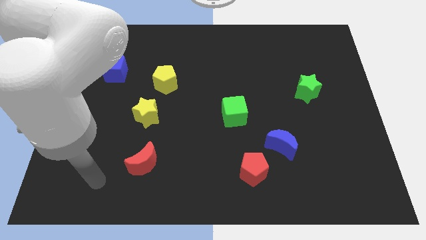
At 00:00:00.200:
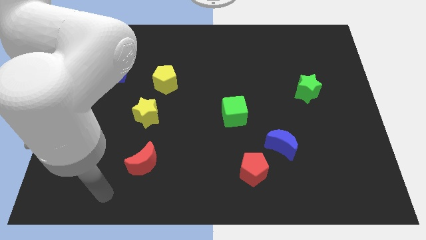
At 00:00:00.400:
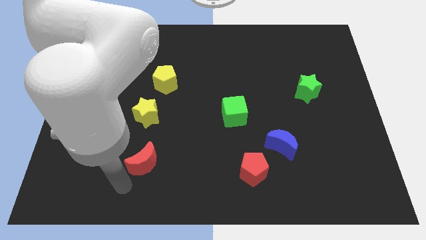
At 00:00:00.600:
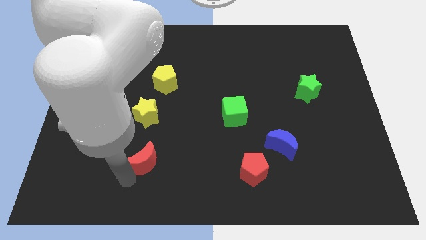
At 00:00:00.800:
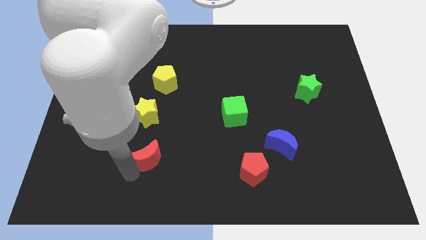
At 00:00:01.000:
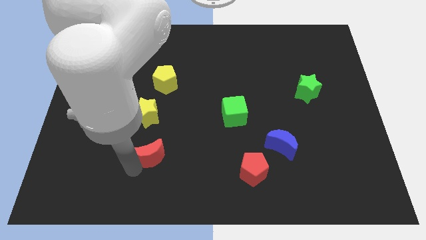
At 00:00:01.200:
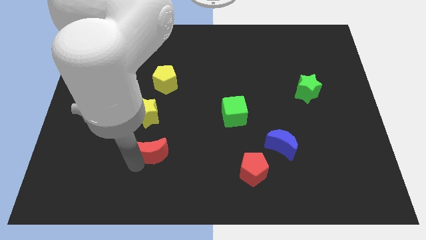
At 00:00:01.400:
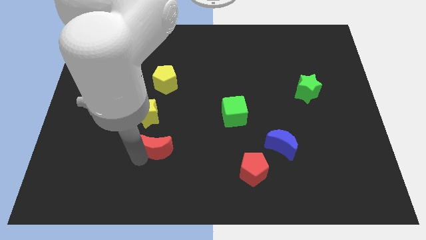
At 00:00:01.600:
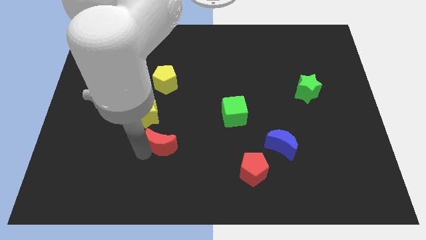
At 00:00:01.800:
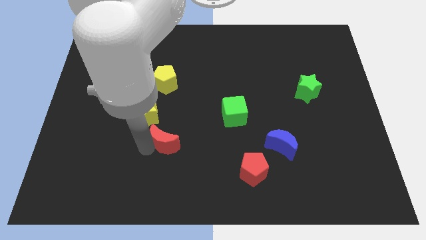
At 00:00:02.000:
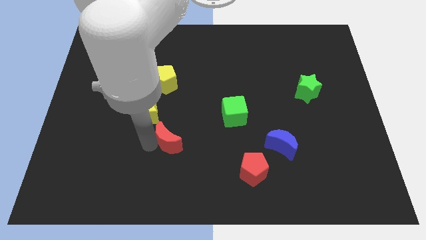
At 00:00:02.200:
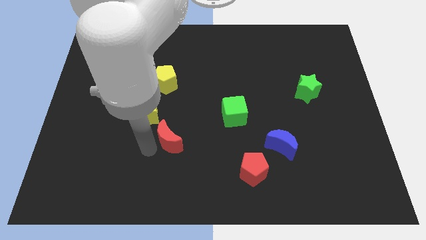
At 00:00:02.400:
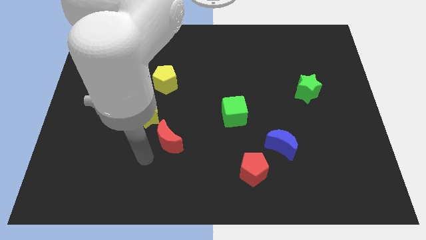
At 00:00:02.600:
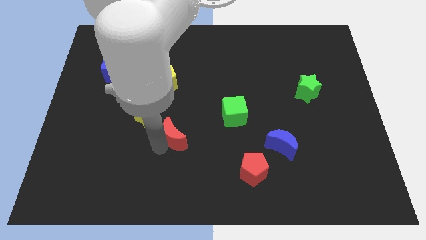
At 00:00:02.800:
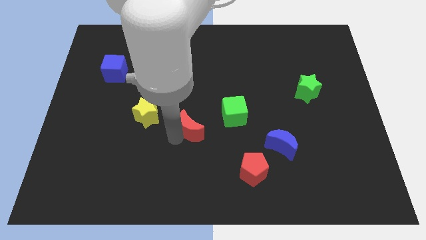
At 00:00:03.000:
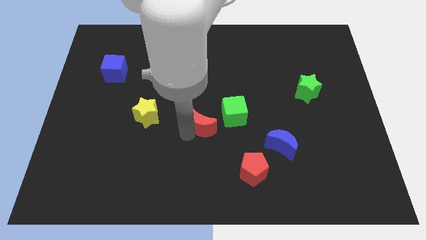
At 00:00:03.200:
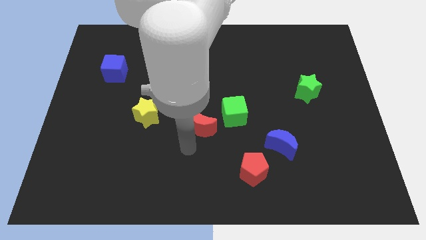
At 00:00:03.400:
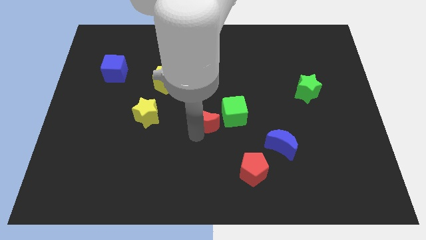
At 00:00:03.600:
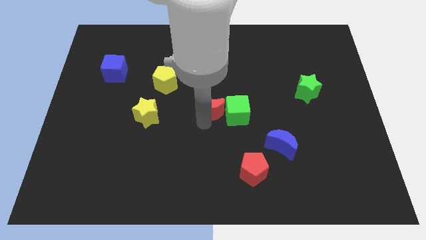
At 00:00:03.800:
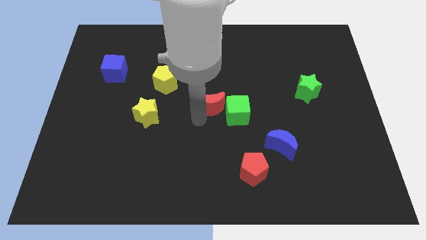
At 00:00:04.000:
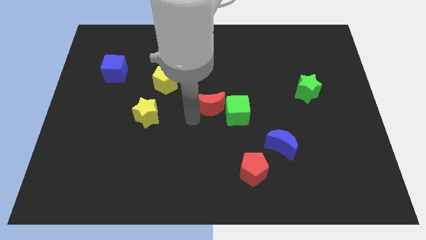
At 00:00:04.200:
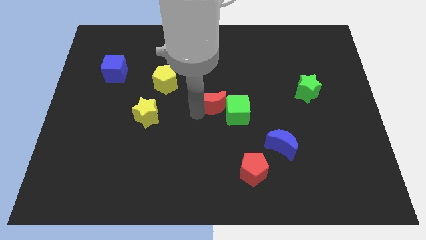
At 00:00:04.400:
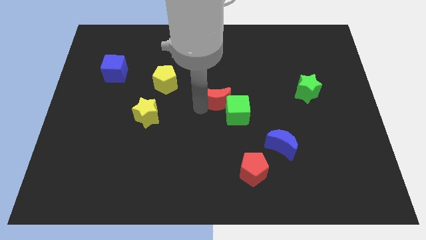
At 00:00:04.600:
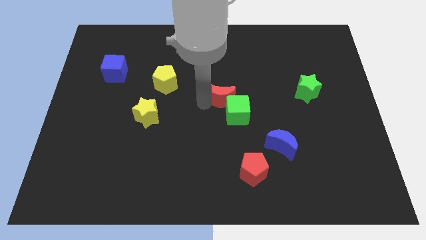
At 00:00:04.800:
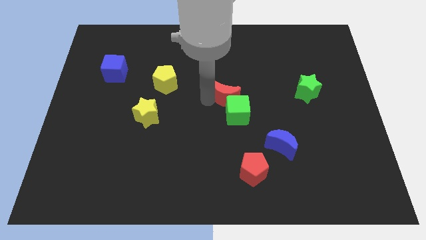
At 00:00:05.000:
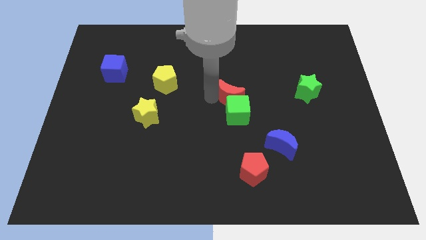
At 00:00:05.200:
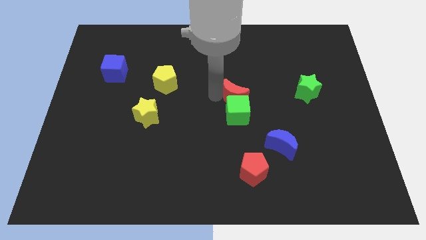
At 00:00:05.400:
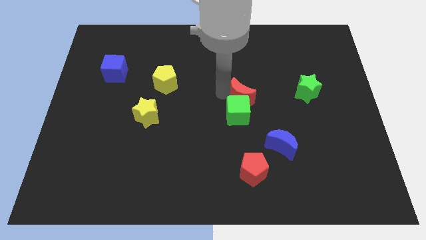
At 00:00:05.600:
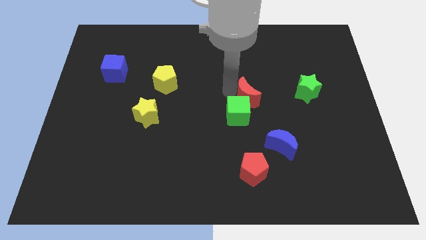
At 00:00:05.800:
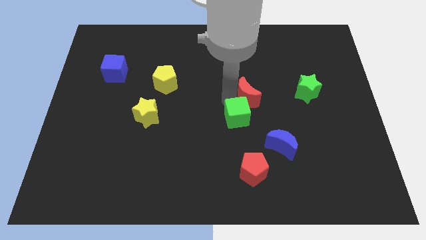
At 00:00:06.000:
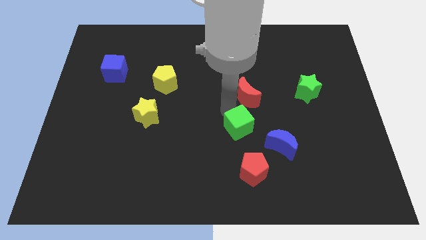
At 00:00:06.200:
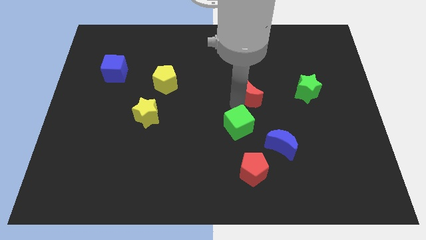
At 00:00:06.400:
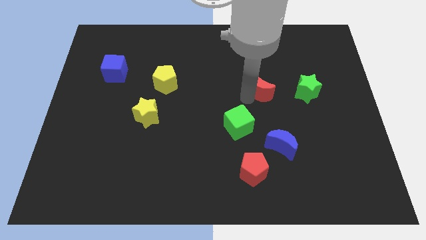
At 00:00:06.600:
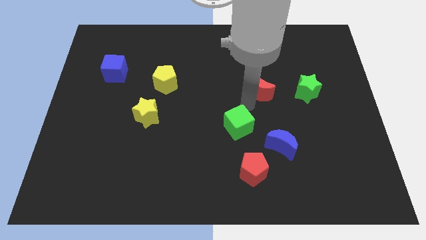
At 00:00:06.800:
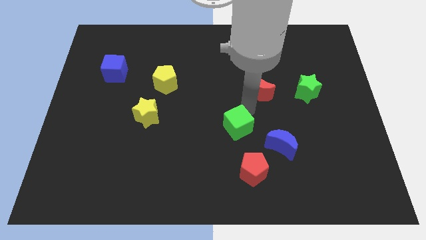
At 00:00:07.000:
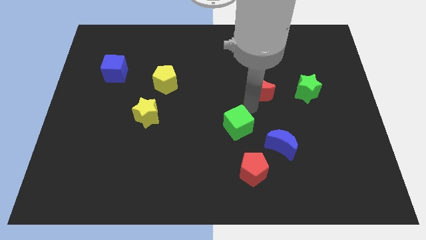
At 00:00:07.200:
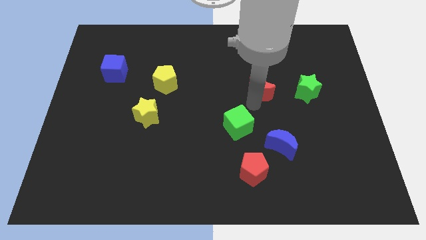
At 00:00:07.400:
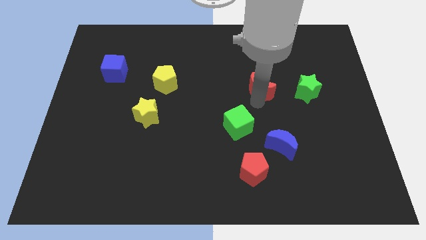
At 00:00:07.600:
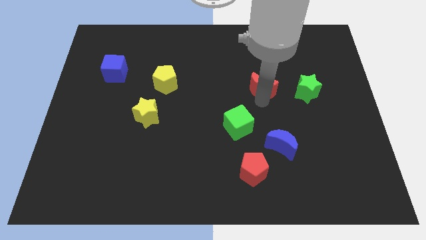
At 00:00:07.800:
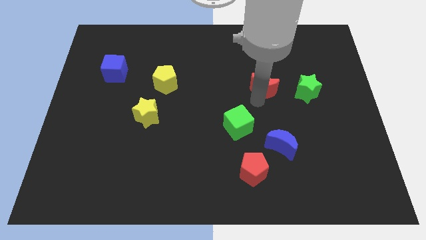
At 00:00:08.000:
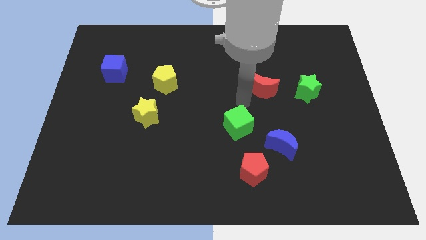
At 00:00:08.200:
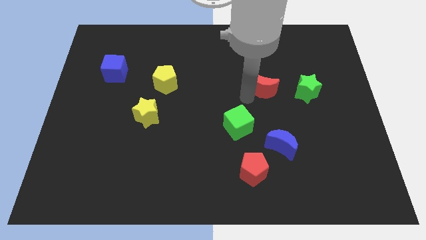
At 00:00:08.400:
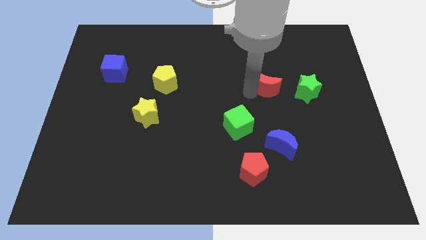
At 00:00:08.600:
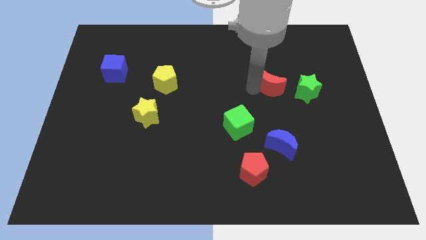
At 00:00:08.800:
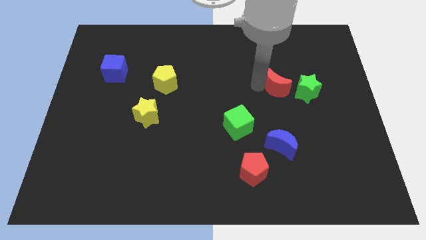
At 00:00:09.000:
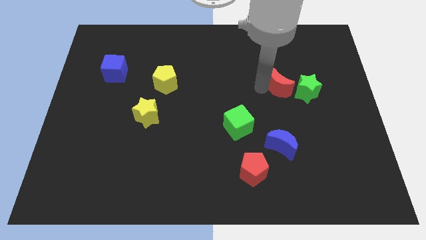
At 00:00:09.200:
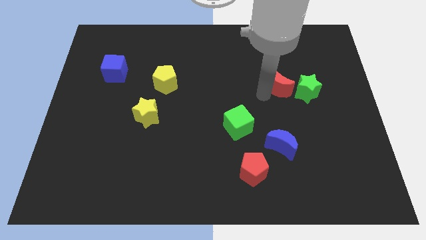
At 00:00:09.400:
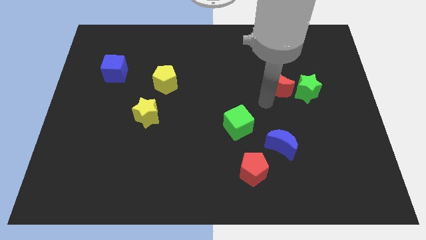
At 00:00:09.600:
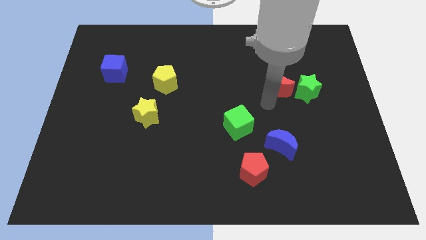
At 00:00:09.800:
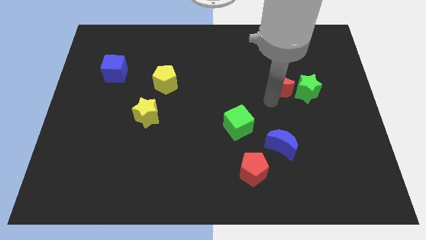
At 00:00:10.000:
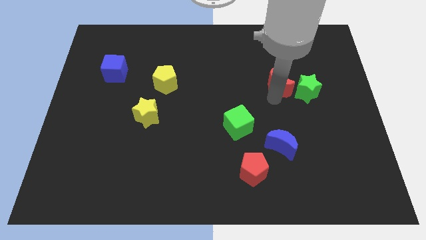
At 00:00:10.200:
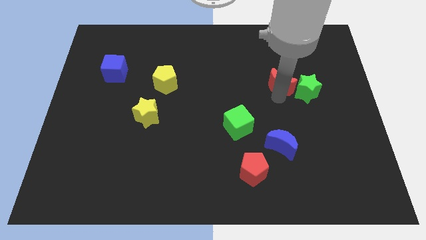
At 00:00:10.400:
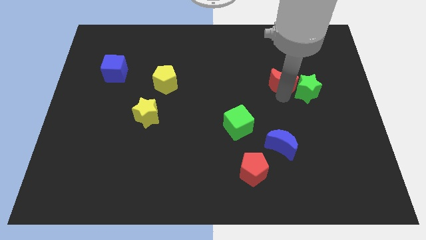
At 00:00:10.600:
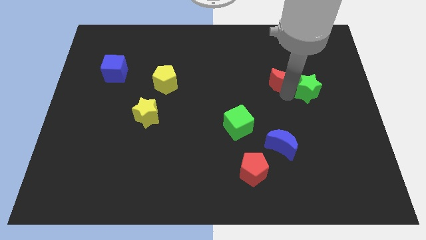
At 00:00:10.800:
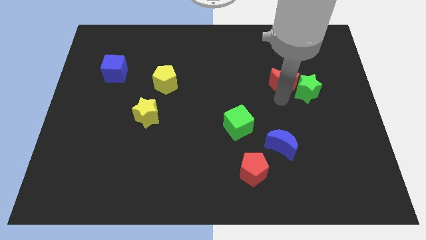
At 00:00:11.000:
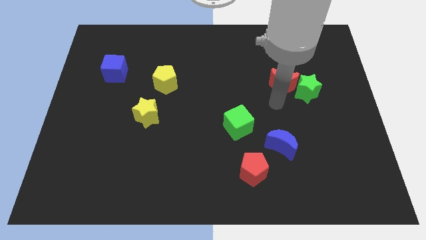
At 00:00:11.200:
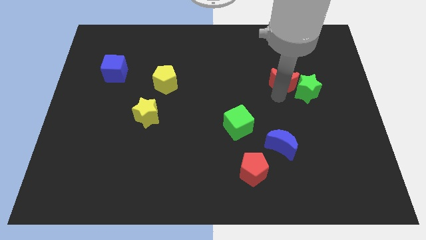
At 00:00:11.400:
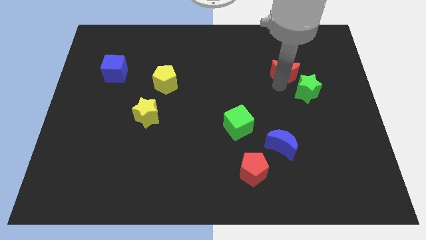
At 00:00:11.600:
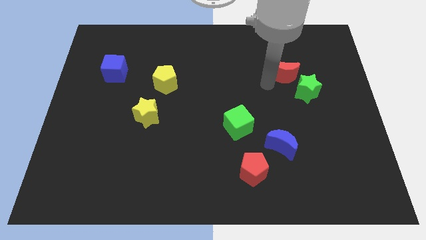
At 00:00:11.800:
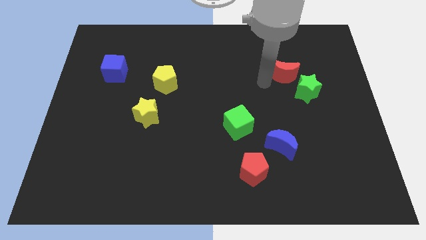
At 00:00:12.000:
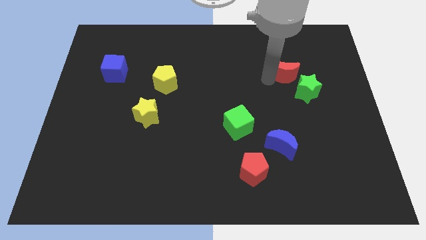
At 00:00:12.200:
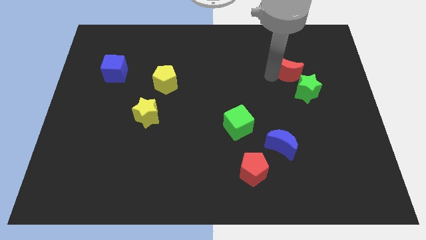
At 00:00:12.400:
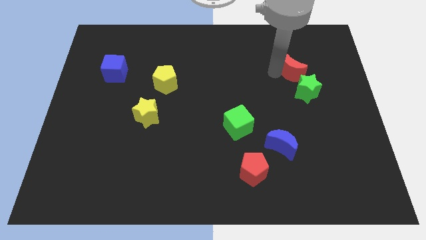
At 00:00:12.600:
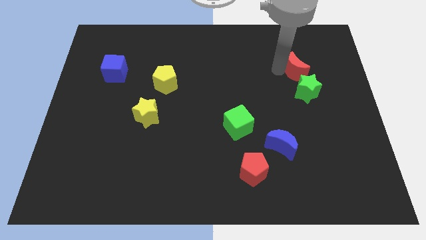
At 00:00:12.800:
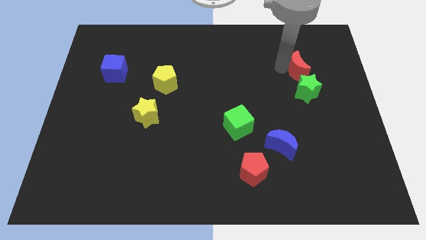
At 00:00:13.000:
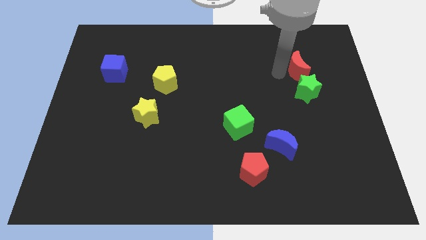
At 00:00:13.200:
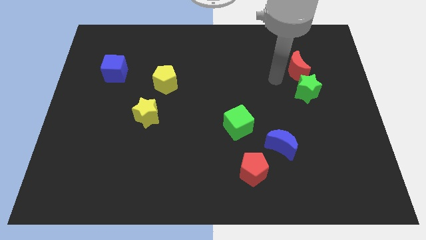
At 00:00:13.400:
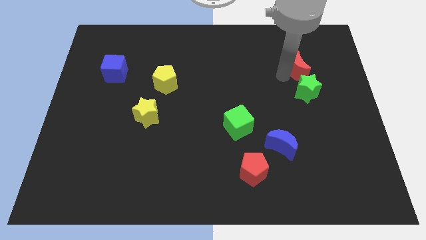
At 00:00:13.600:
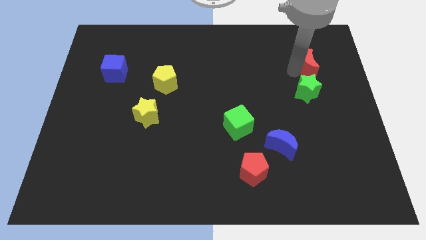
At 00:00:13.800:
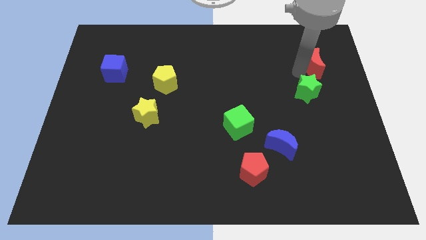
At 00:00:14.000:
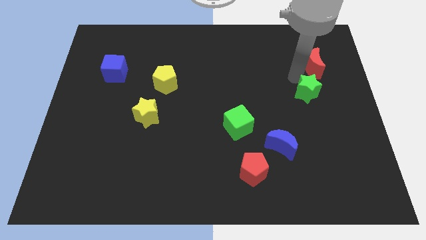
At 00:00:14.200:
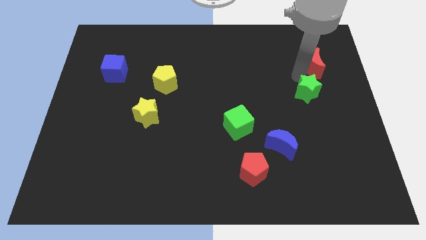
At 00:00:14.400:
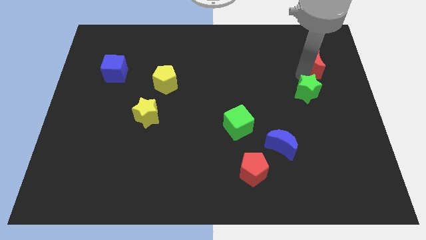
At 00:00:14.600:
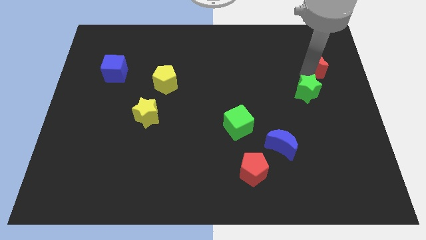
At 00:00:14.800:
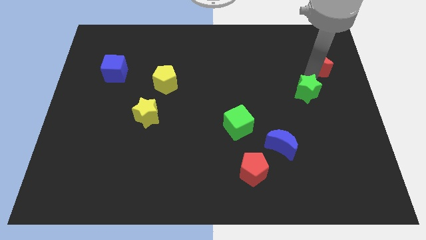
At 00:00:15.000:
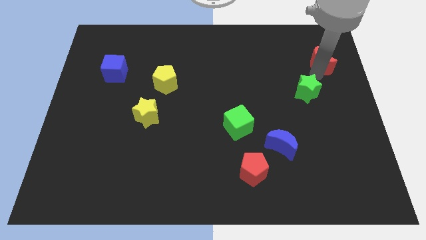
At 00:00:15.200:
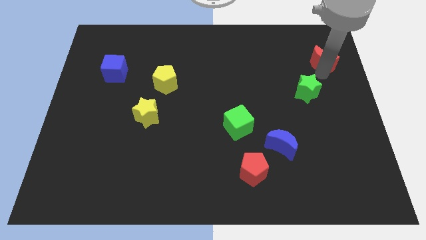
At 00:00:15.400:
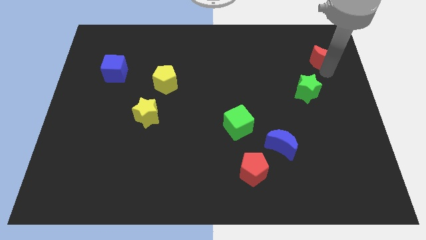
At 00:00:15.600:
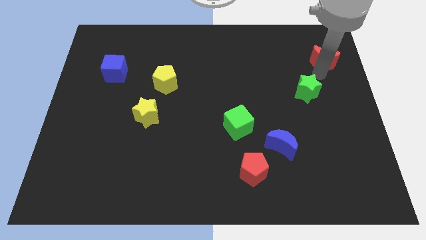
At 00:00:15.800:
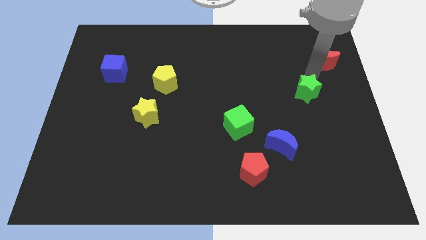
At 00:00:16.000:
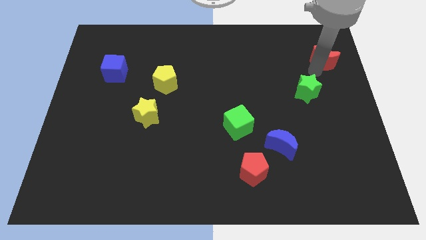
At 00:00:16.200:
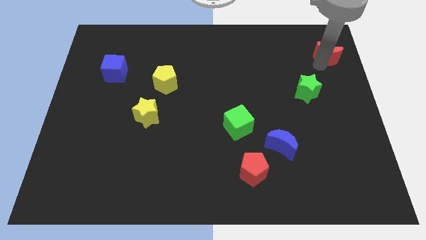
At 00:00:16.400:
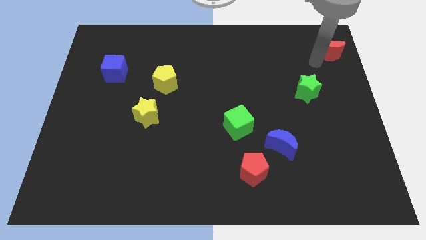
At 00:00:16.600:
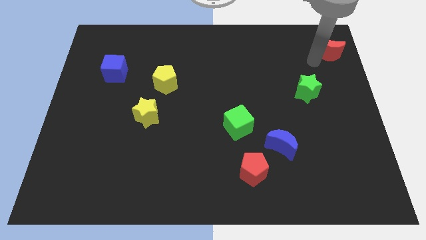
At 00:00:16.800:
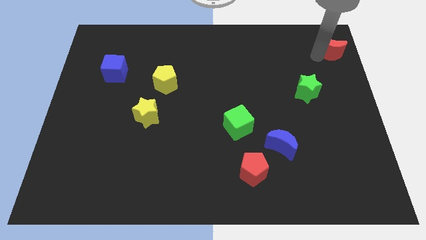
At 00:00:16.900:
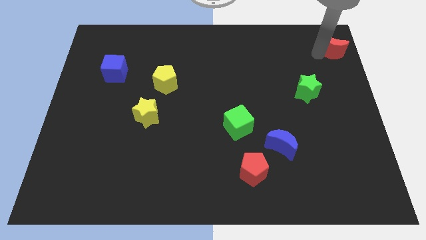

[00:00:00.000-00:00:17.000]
put the red moon to the upper right corner
